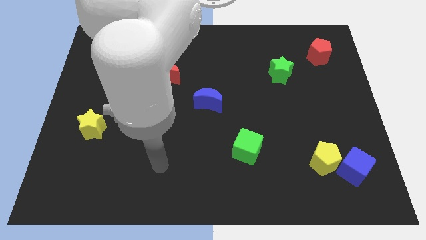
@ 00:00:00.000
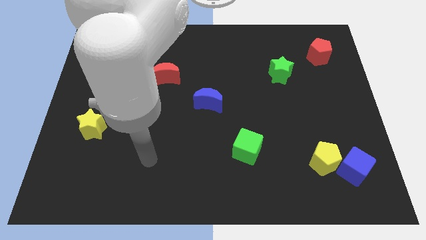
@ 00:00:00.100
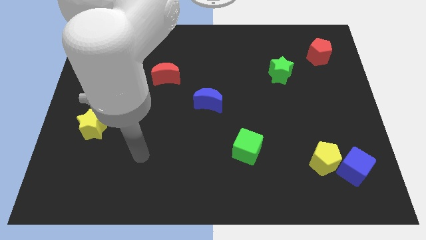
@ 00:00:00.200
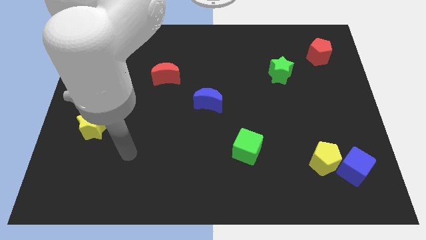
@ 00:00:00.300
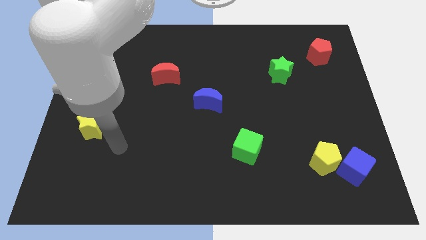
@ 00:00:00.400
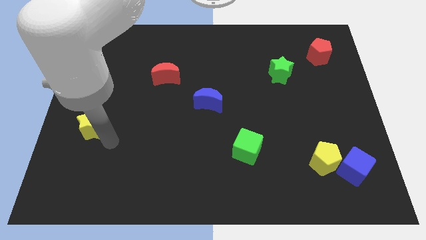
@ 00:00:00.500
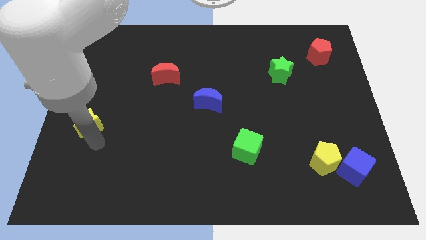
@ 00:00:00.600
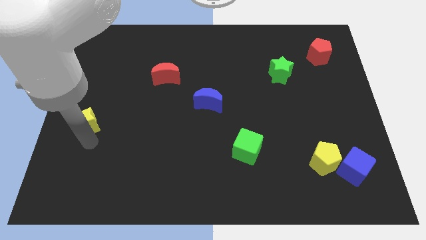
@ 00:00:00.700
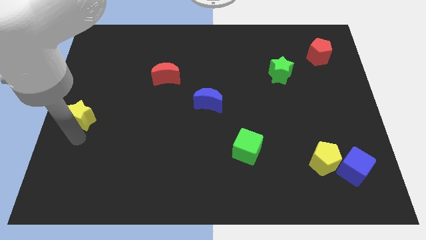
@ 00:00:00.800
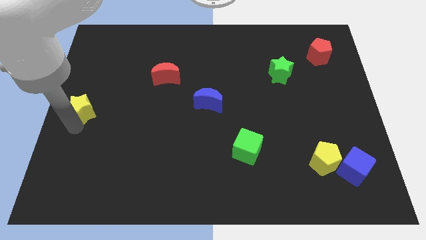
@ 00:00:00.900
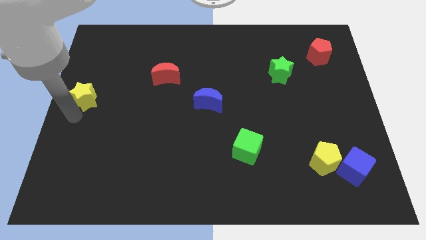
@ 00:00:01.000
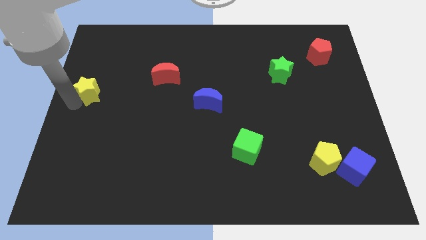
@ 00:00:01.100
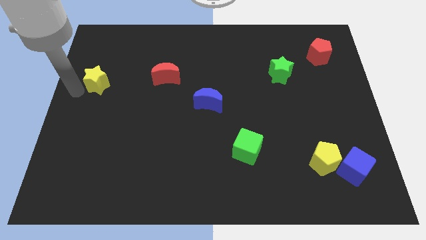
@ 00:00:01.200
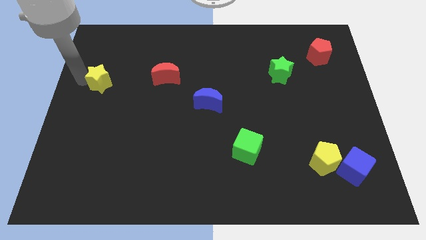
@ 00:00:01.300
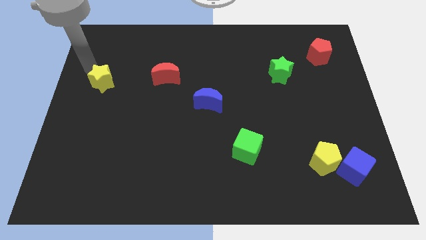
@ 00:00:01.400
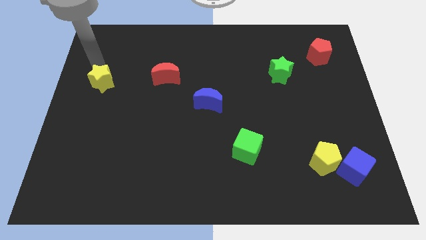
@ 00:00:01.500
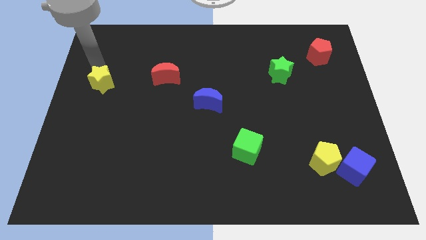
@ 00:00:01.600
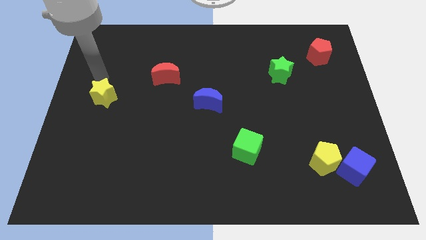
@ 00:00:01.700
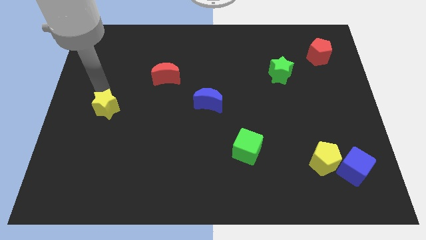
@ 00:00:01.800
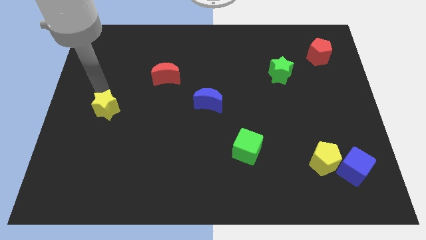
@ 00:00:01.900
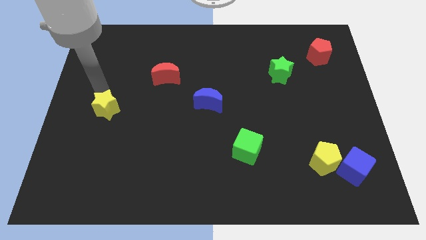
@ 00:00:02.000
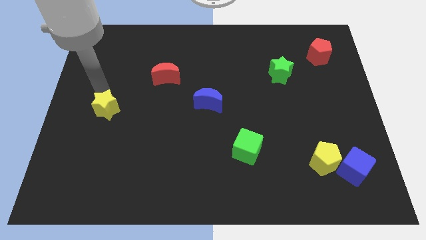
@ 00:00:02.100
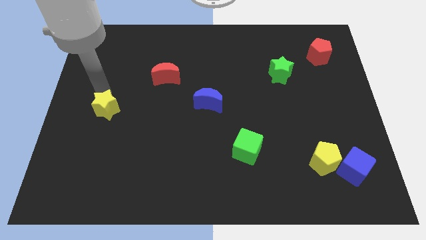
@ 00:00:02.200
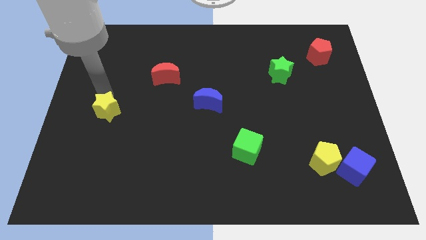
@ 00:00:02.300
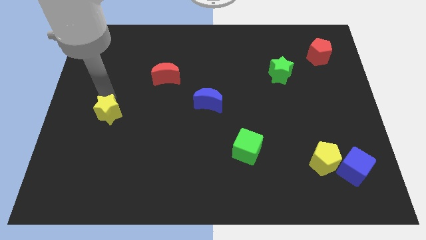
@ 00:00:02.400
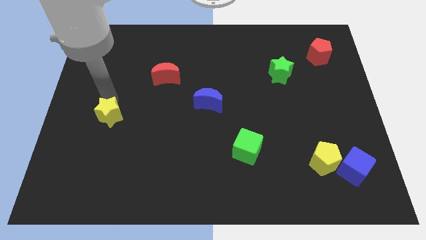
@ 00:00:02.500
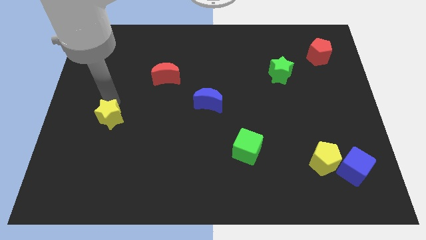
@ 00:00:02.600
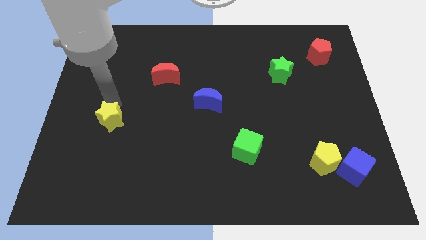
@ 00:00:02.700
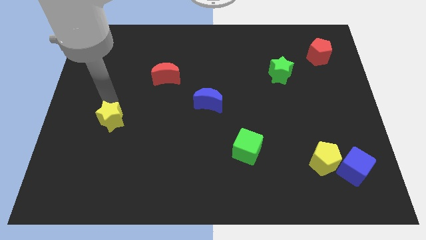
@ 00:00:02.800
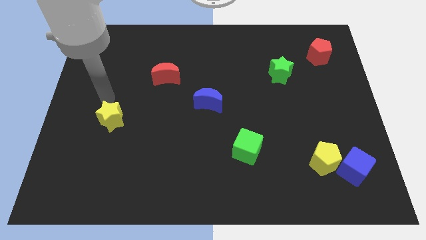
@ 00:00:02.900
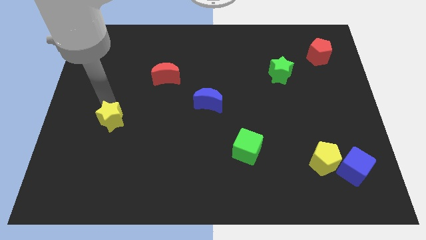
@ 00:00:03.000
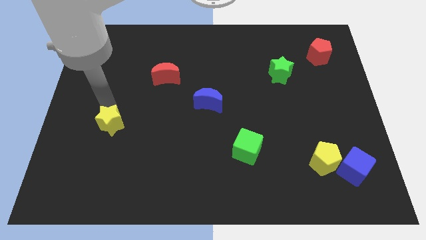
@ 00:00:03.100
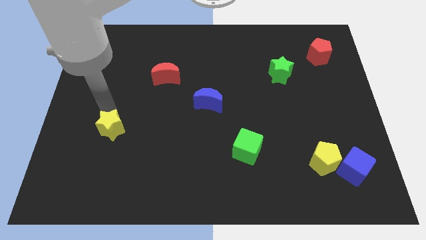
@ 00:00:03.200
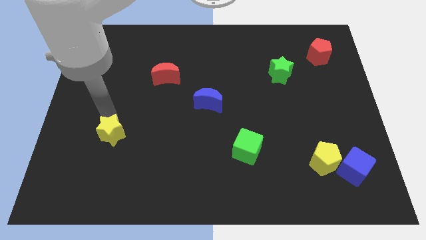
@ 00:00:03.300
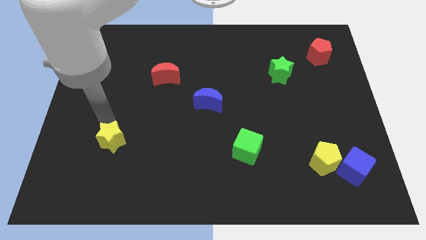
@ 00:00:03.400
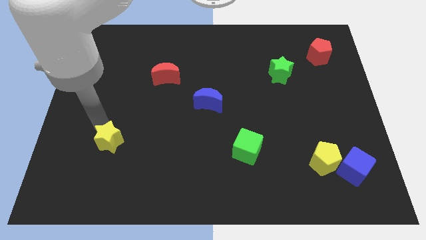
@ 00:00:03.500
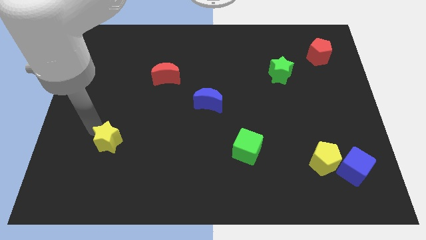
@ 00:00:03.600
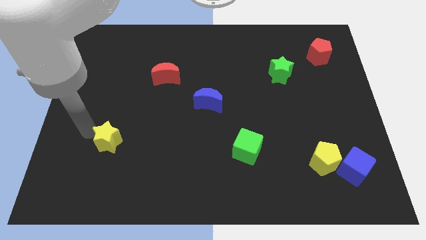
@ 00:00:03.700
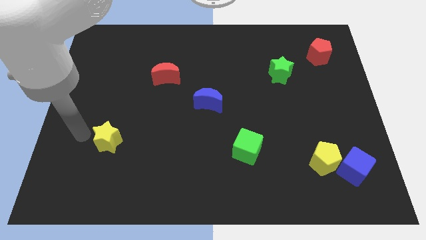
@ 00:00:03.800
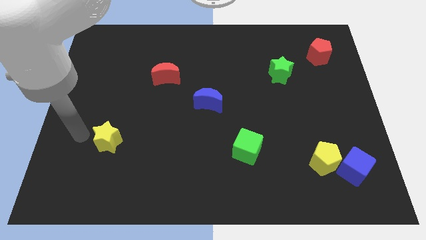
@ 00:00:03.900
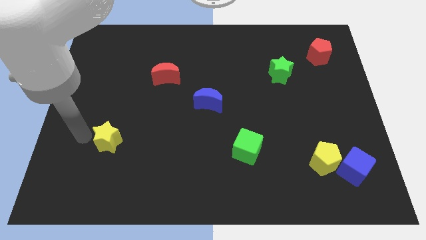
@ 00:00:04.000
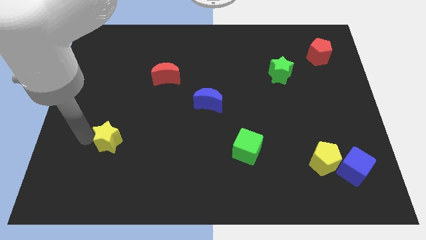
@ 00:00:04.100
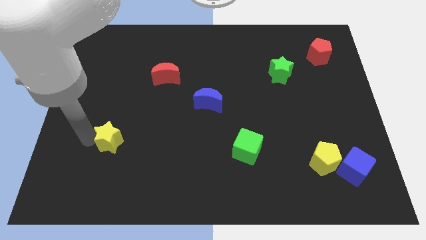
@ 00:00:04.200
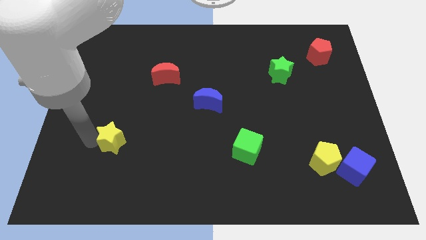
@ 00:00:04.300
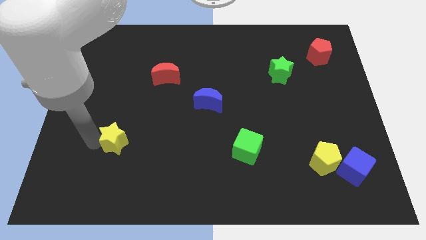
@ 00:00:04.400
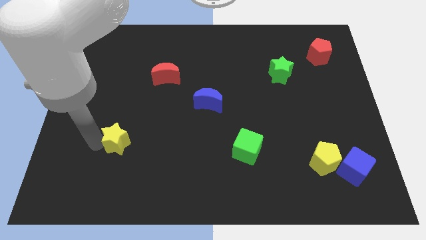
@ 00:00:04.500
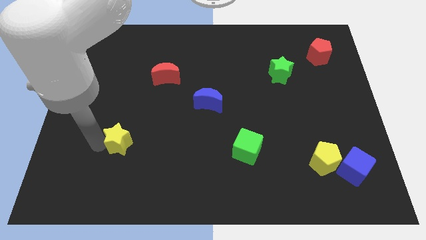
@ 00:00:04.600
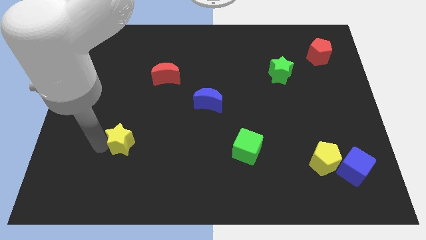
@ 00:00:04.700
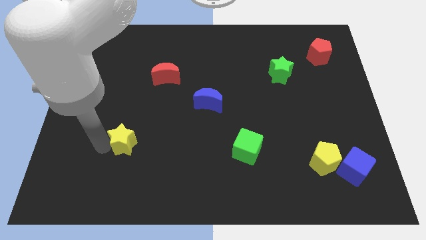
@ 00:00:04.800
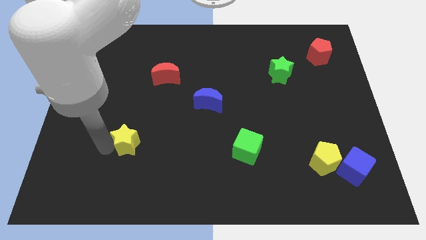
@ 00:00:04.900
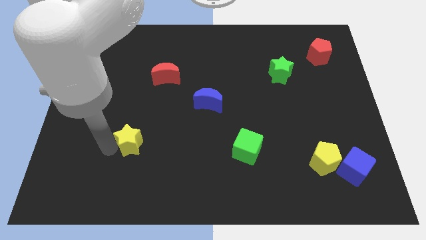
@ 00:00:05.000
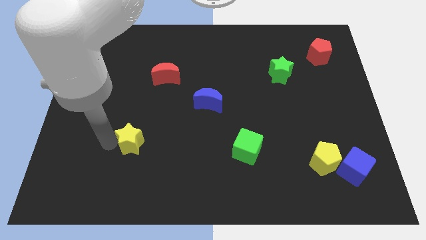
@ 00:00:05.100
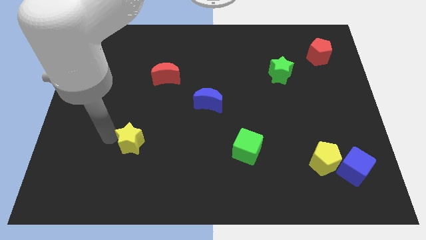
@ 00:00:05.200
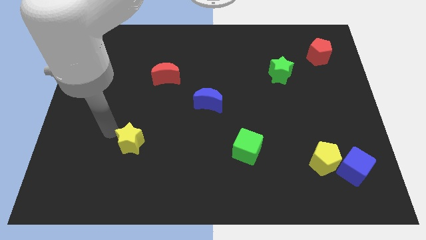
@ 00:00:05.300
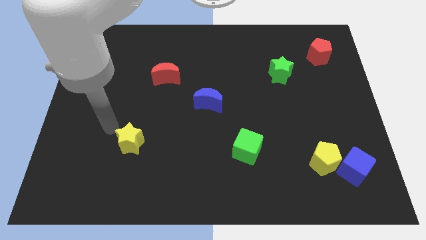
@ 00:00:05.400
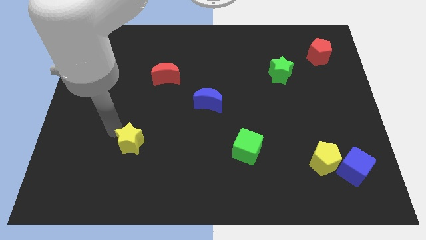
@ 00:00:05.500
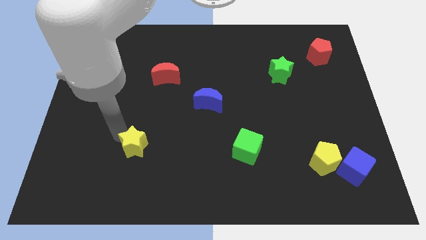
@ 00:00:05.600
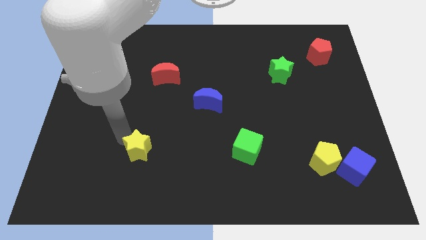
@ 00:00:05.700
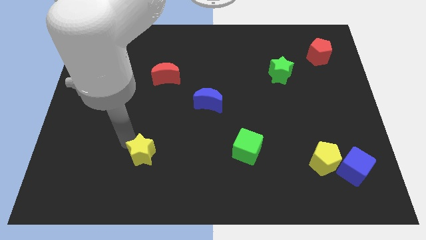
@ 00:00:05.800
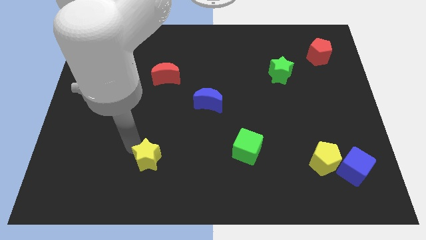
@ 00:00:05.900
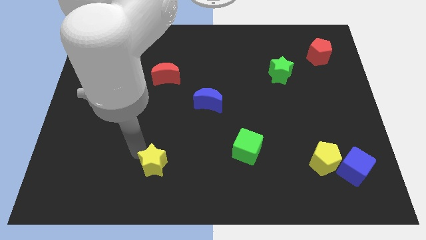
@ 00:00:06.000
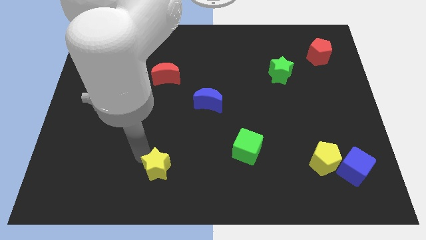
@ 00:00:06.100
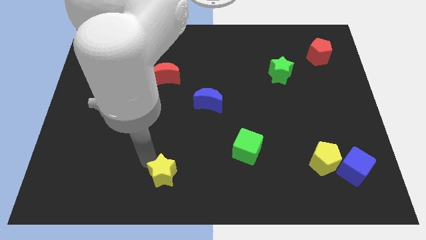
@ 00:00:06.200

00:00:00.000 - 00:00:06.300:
slide the yellow star to the bottom
